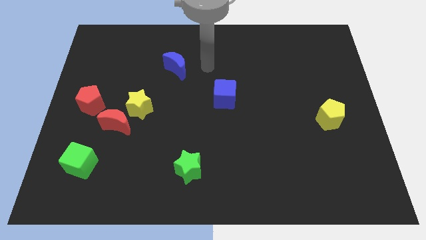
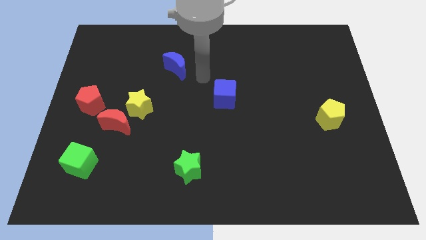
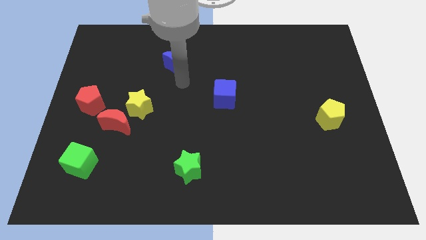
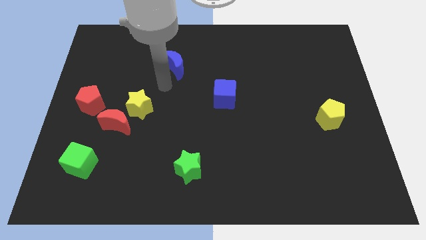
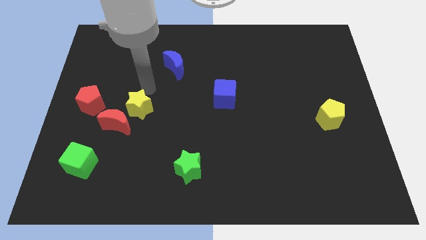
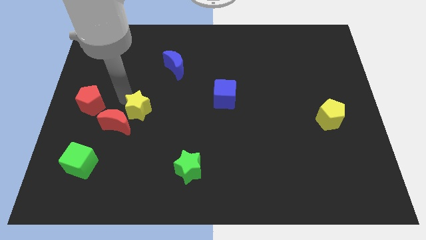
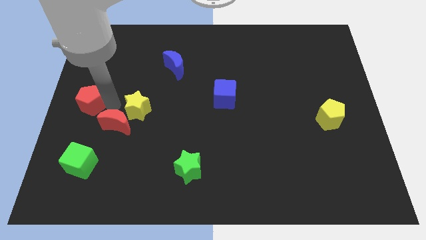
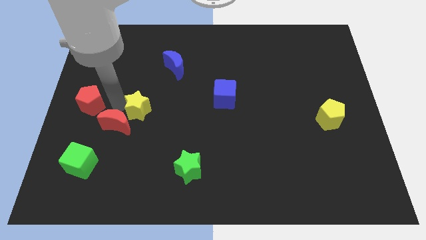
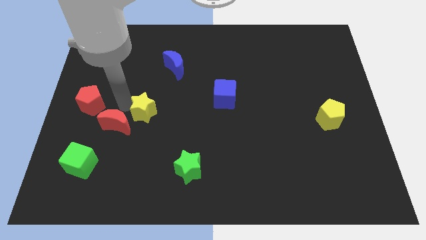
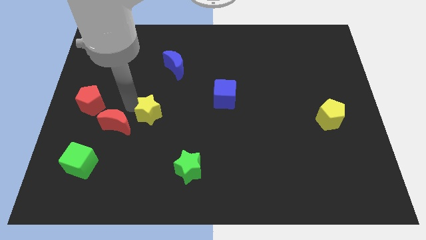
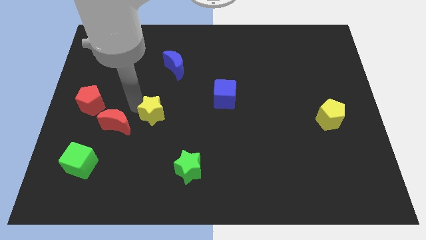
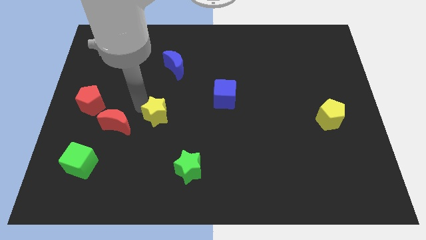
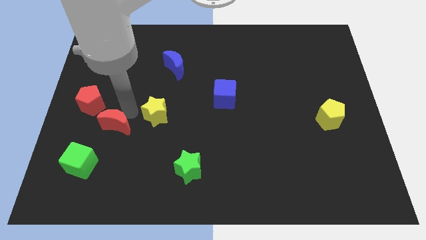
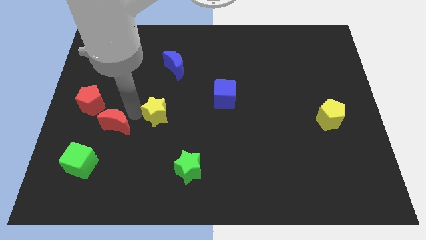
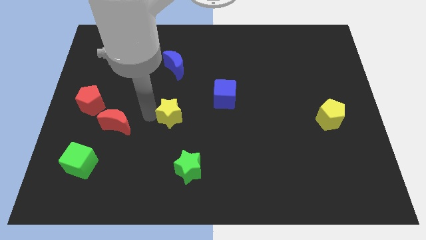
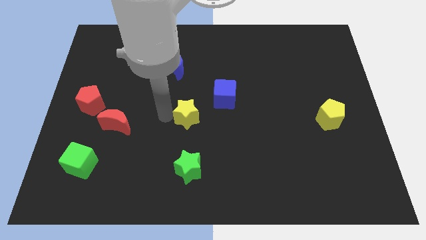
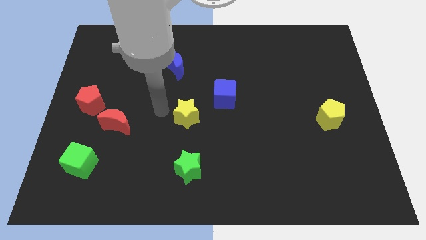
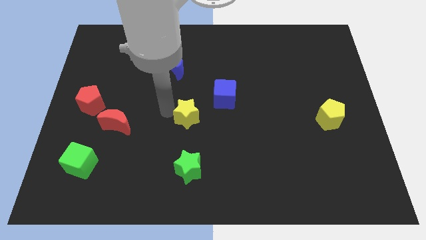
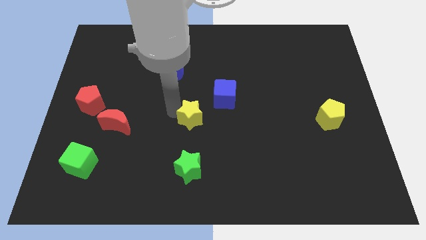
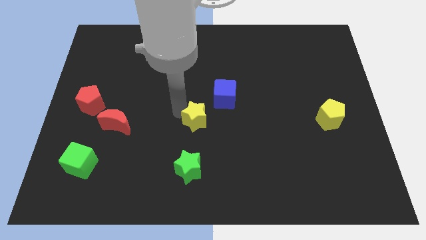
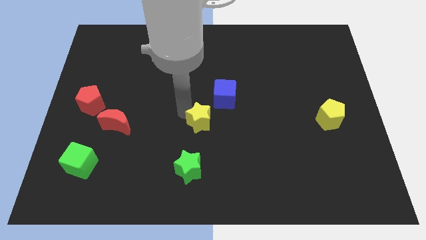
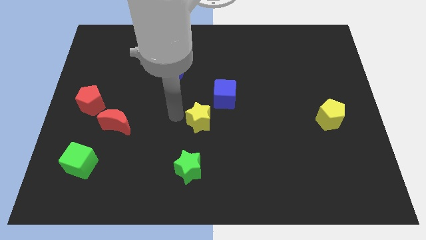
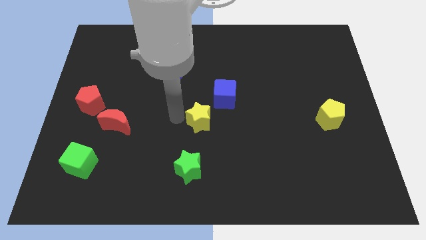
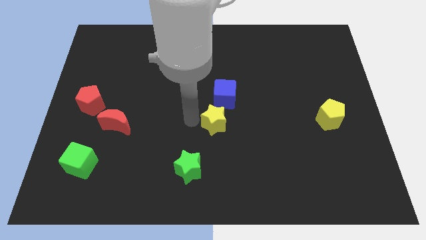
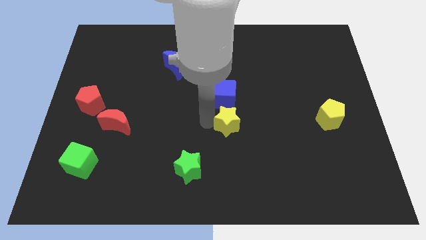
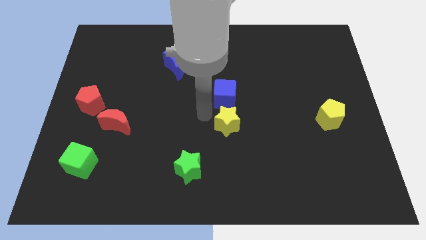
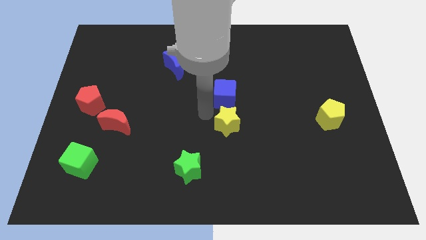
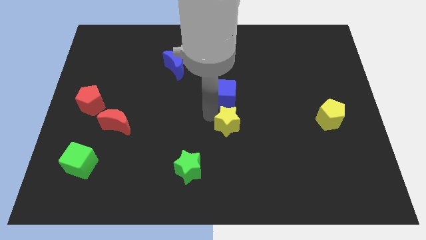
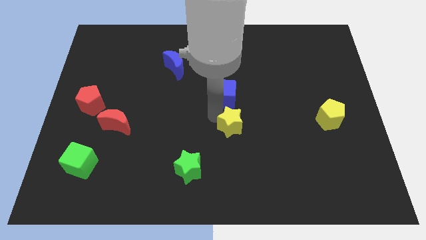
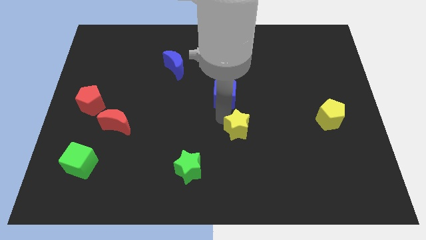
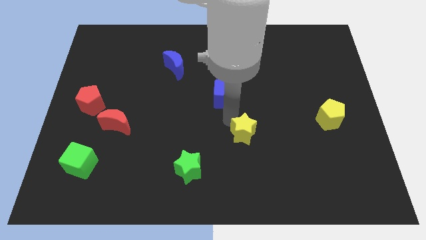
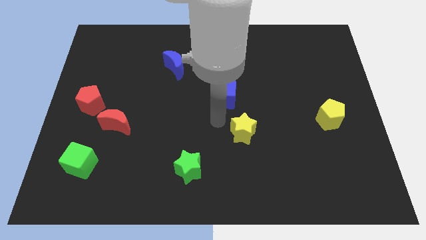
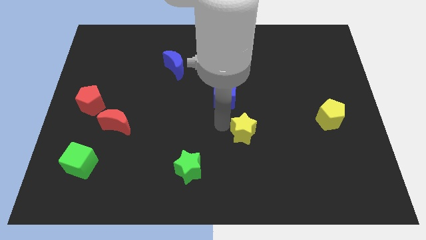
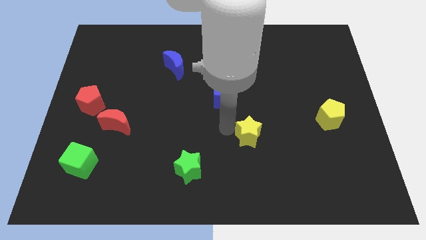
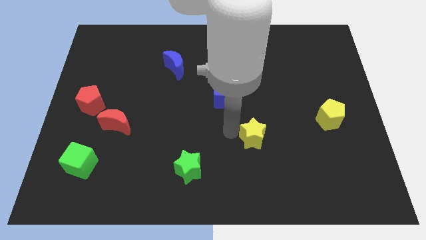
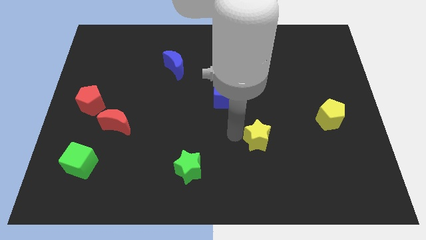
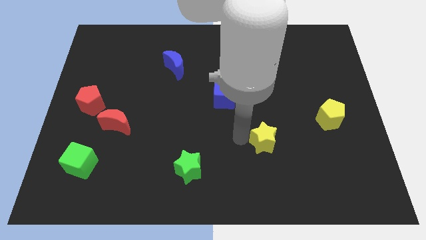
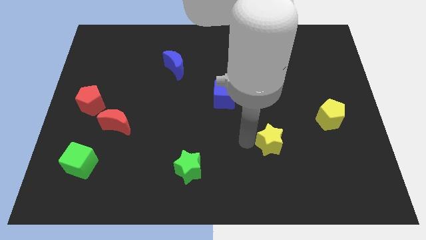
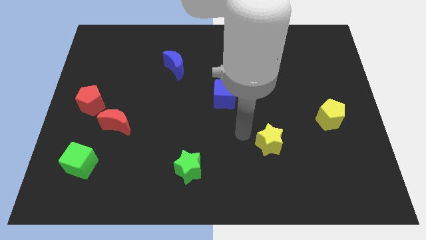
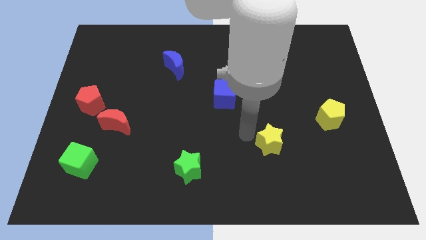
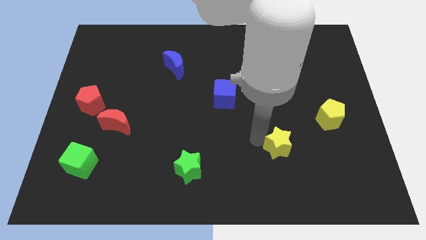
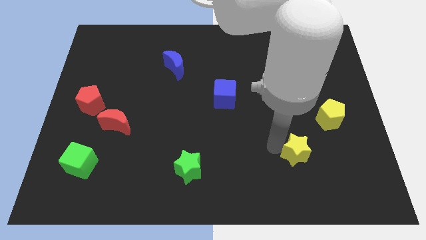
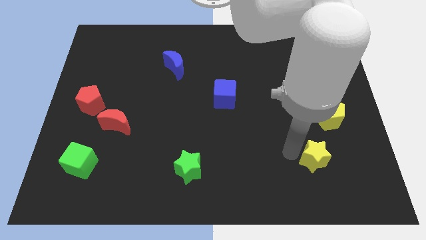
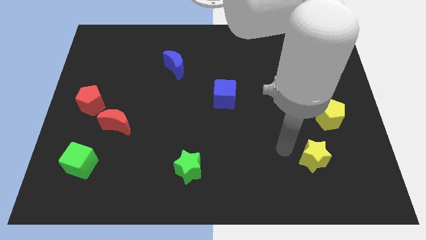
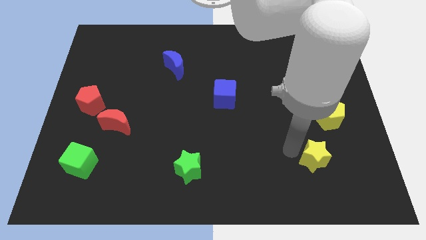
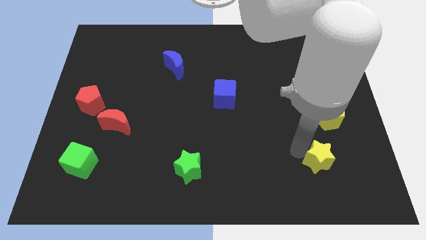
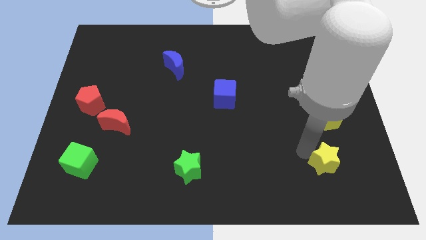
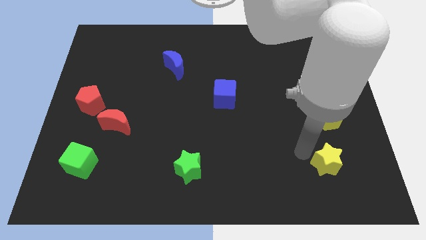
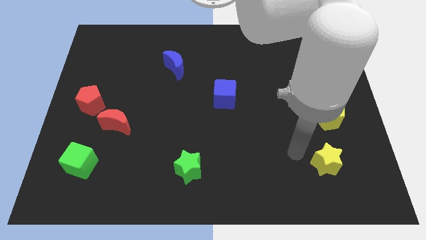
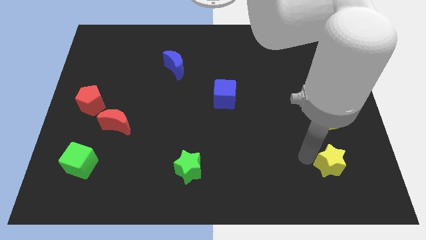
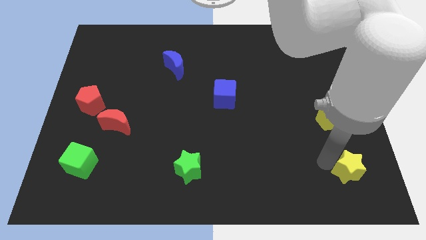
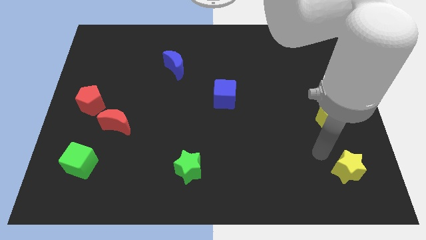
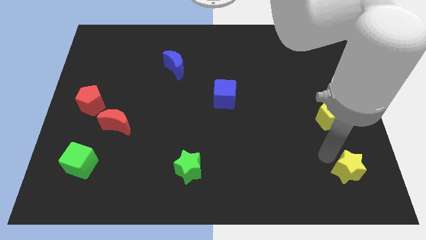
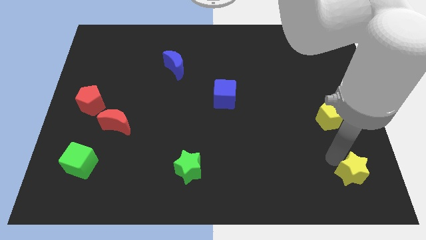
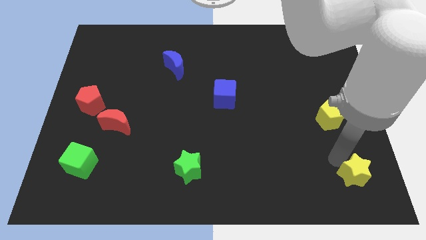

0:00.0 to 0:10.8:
put the yellow star to the bottom right of the board

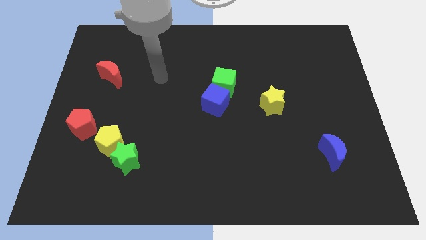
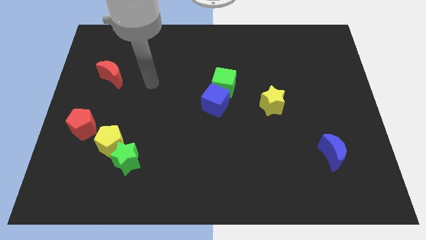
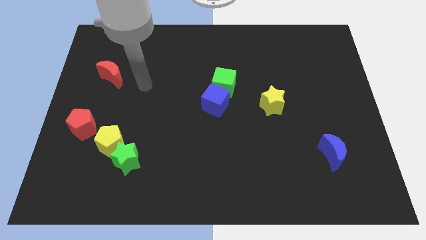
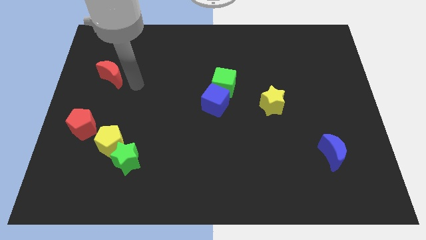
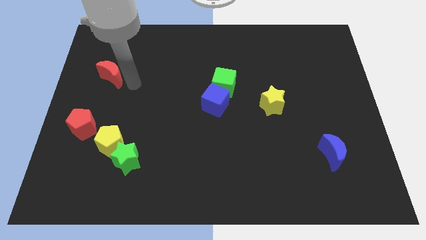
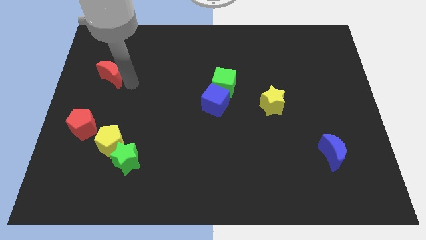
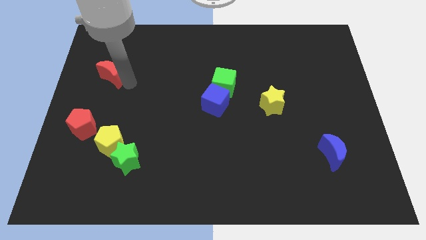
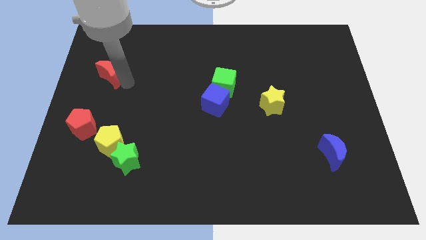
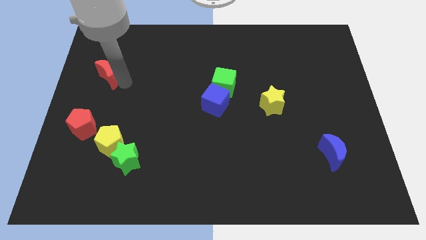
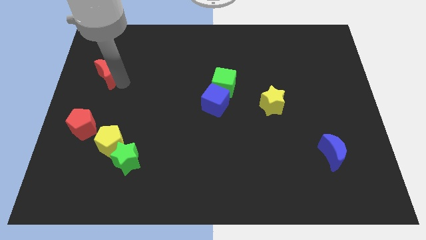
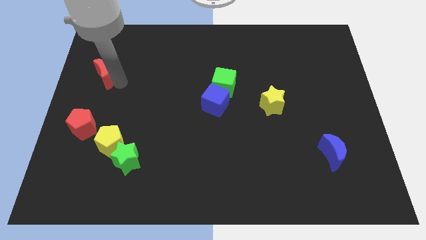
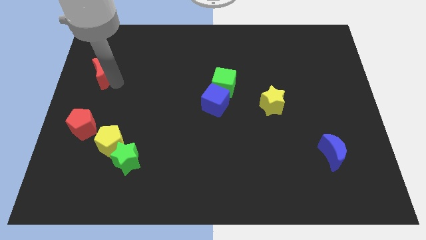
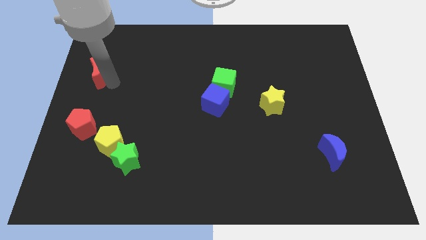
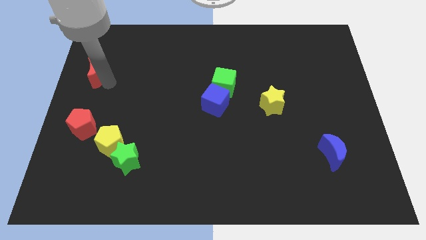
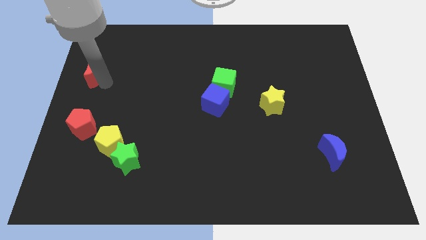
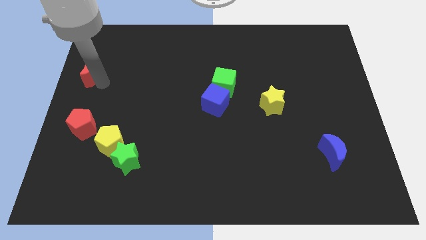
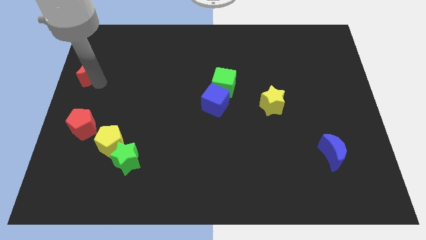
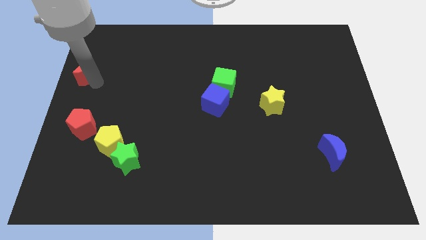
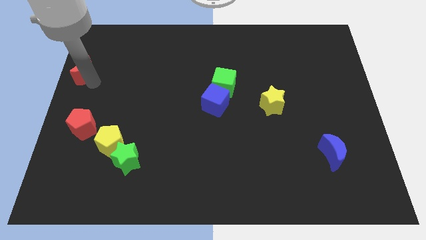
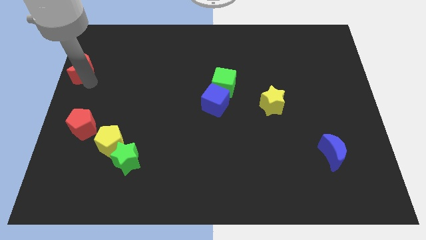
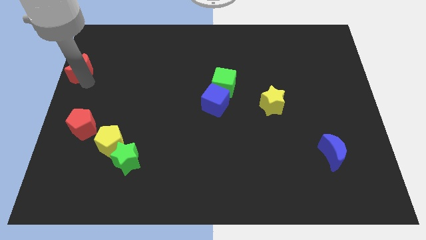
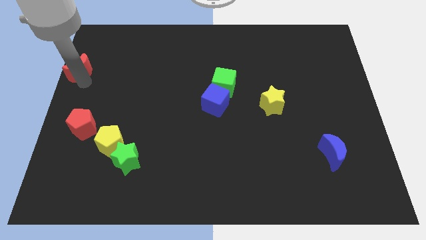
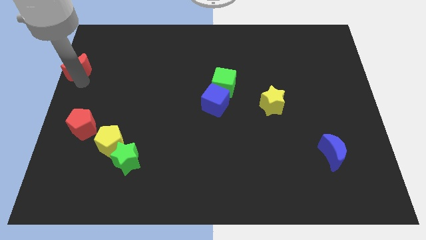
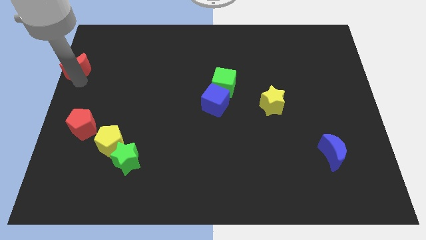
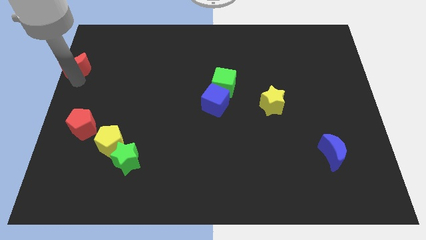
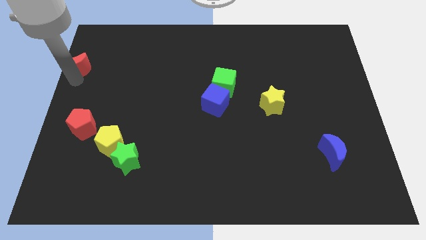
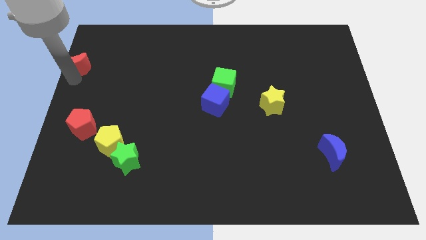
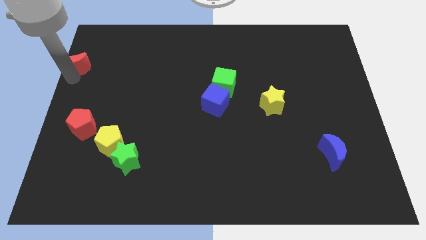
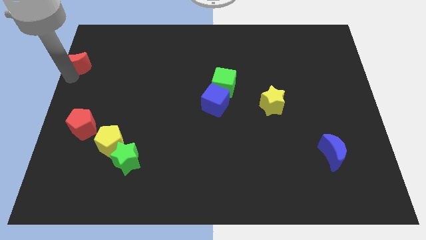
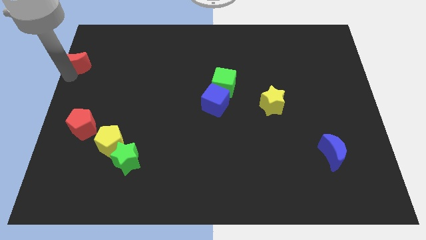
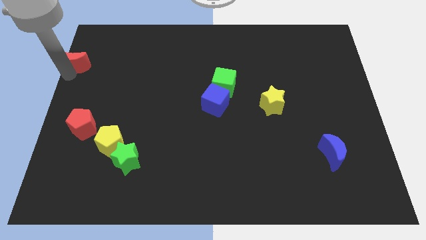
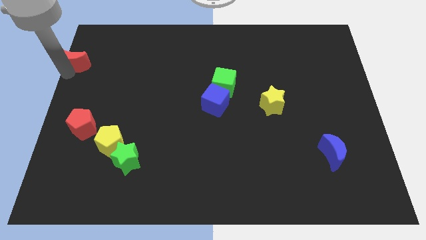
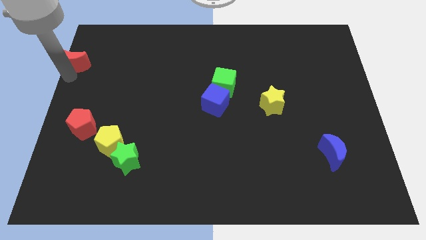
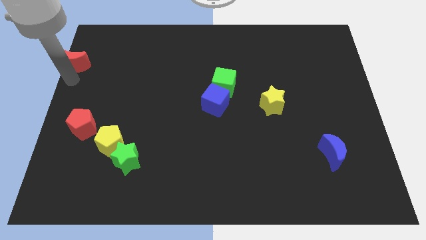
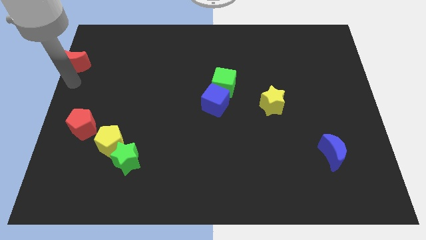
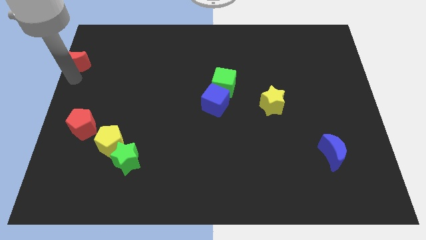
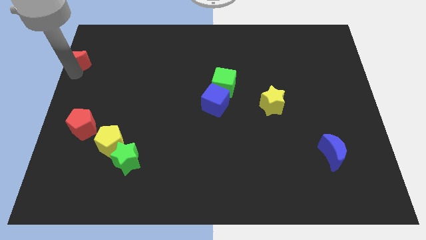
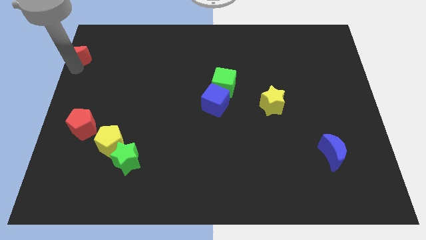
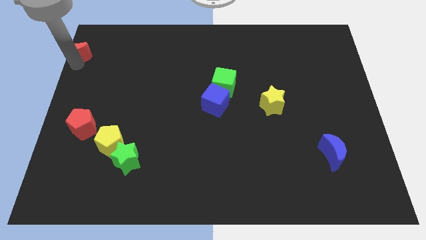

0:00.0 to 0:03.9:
push the red moon to the top left corner
